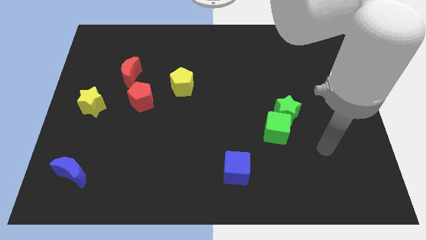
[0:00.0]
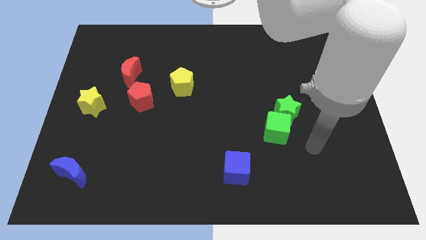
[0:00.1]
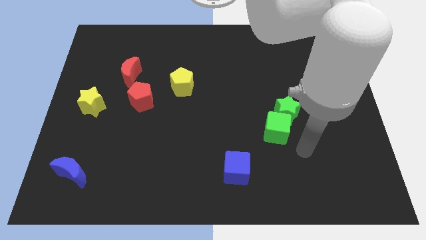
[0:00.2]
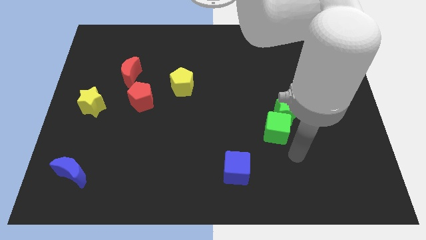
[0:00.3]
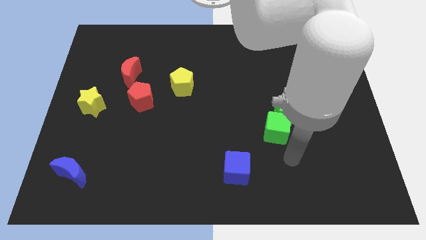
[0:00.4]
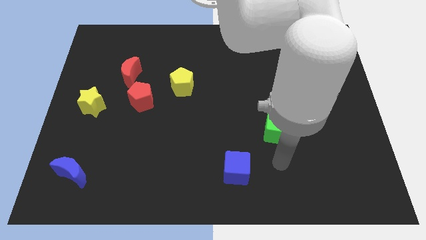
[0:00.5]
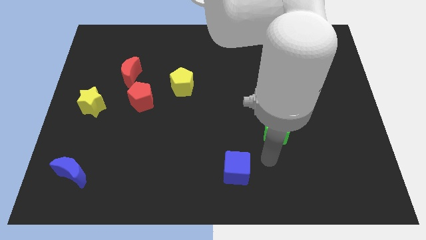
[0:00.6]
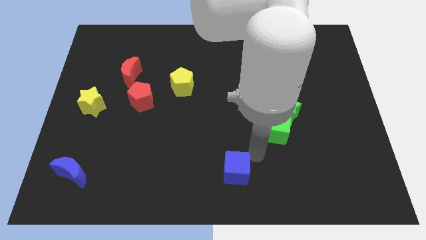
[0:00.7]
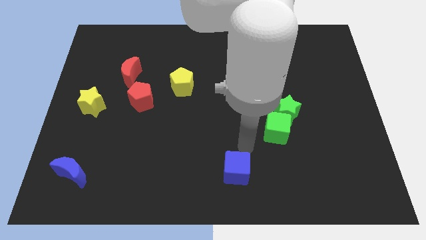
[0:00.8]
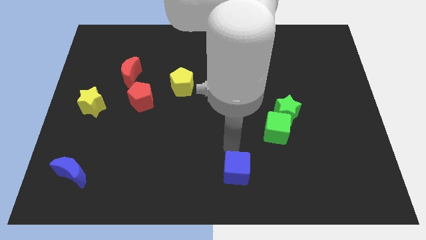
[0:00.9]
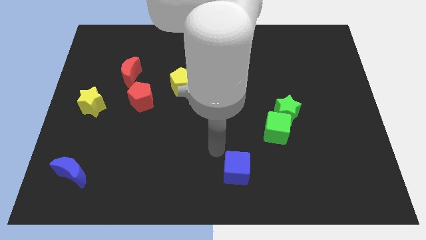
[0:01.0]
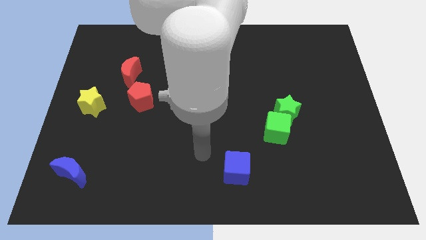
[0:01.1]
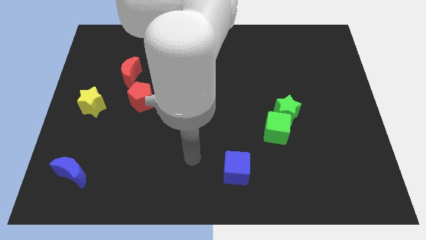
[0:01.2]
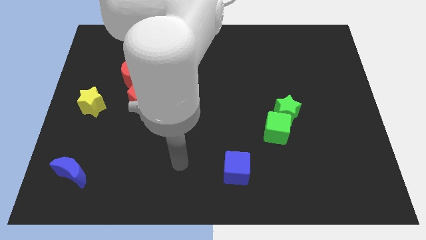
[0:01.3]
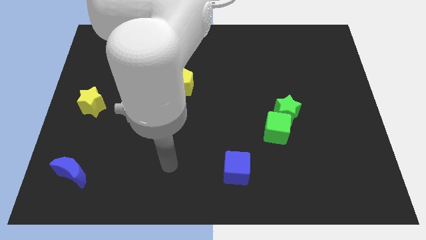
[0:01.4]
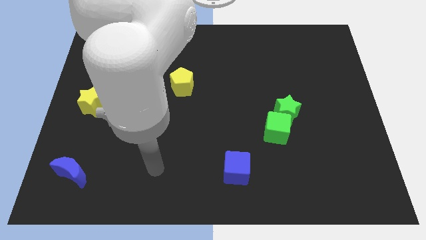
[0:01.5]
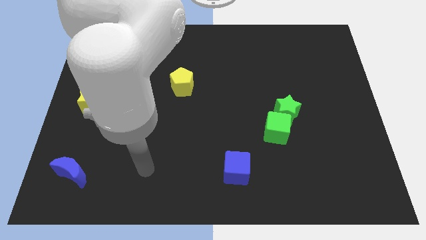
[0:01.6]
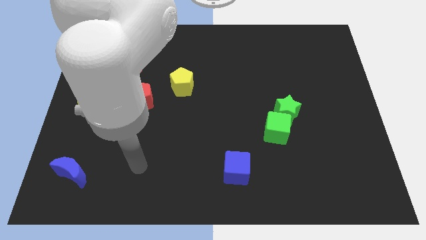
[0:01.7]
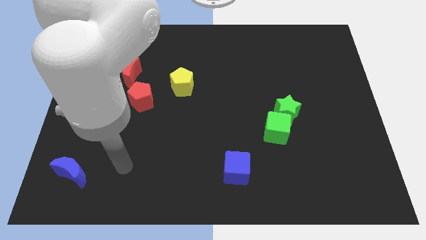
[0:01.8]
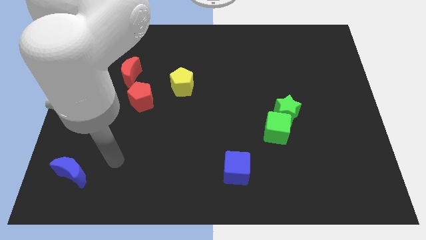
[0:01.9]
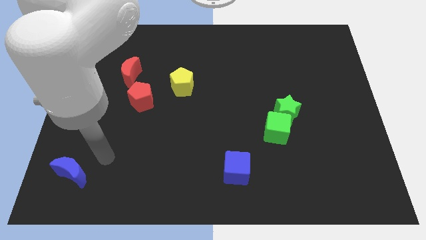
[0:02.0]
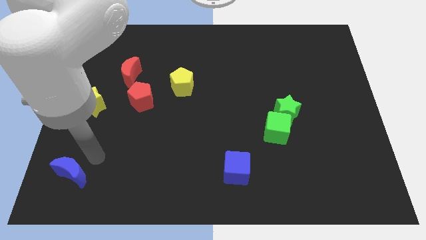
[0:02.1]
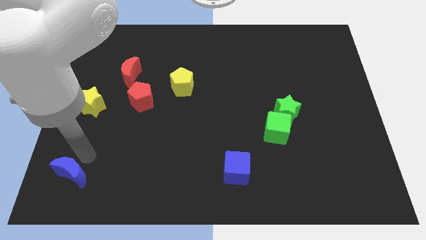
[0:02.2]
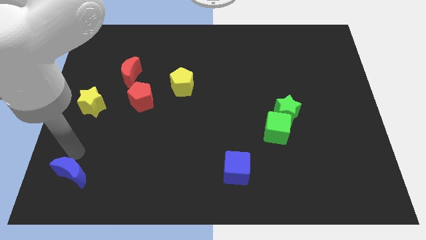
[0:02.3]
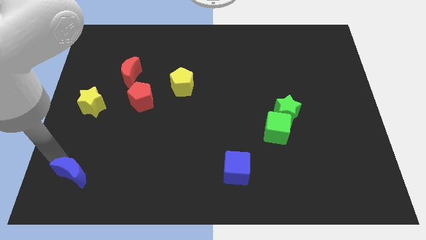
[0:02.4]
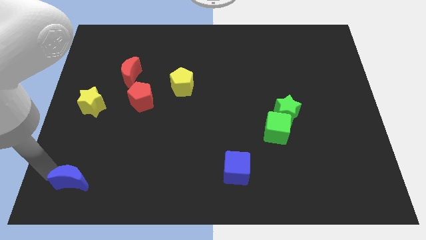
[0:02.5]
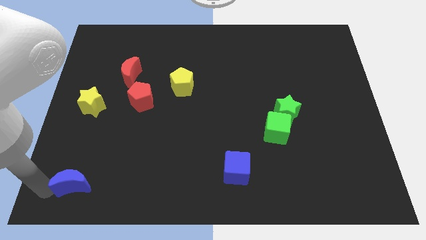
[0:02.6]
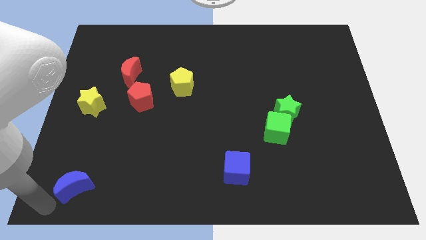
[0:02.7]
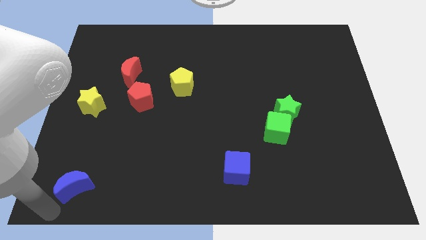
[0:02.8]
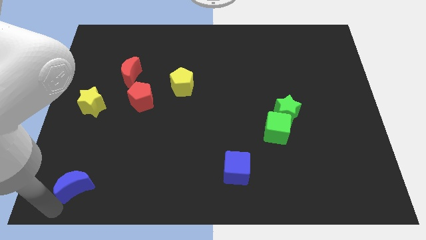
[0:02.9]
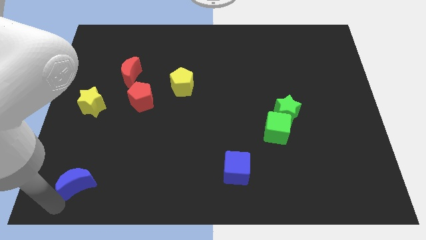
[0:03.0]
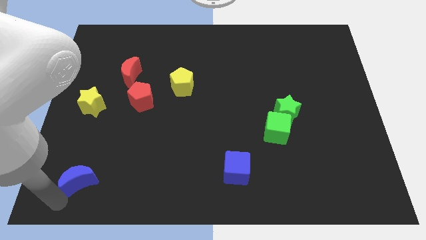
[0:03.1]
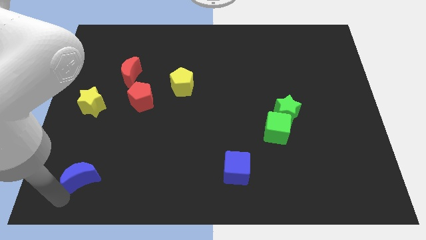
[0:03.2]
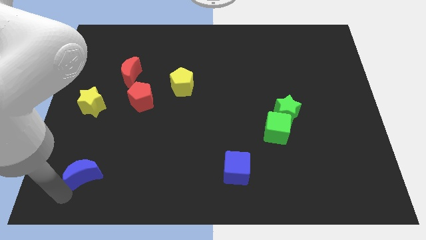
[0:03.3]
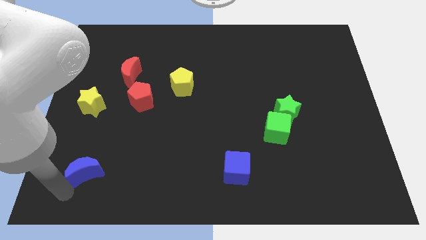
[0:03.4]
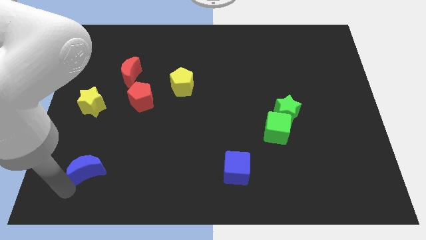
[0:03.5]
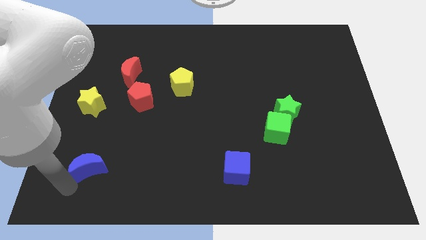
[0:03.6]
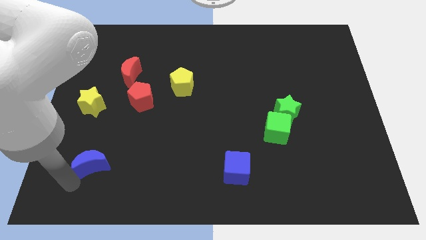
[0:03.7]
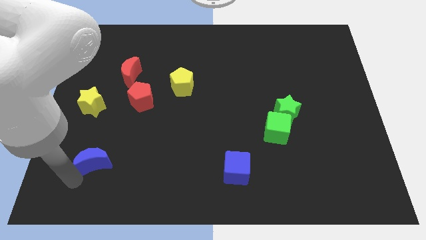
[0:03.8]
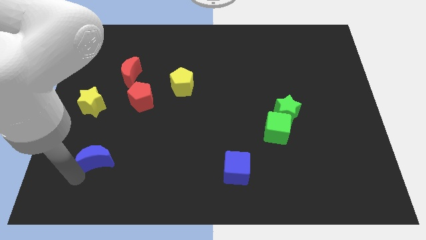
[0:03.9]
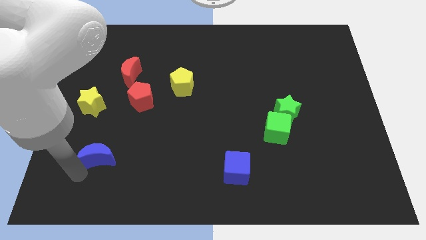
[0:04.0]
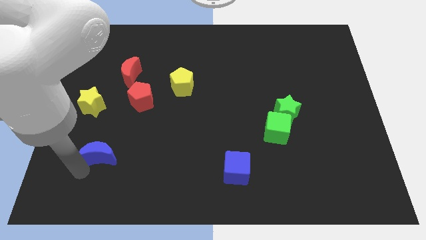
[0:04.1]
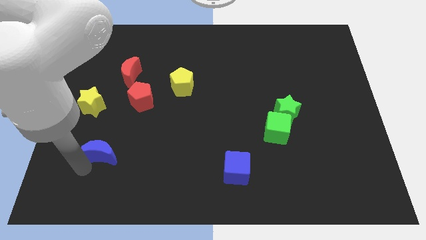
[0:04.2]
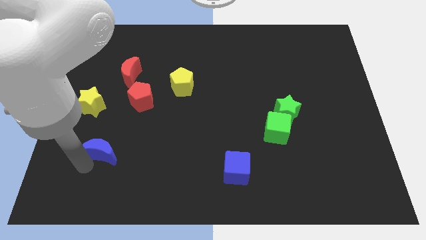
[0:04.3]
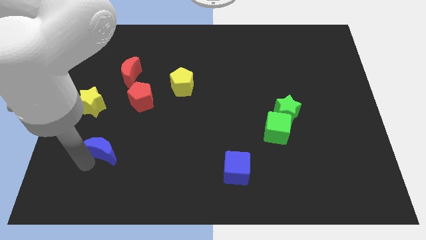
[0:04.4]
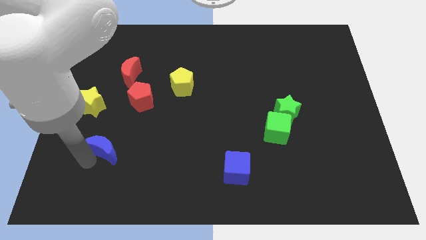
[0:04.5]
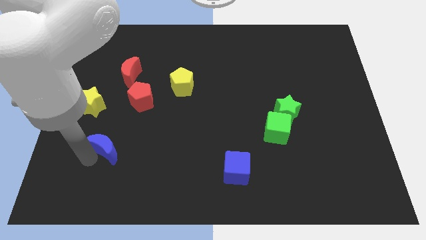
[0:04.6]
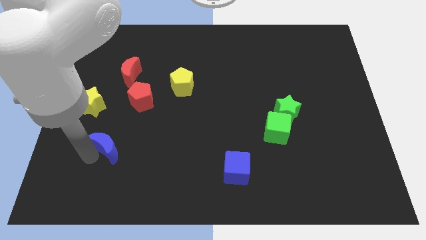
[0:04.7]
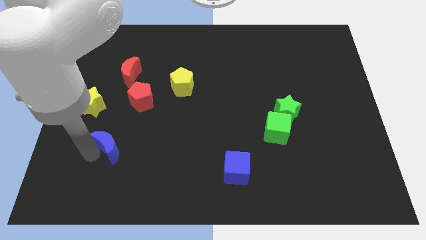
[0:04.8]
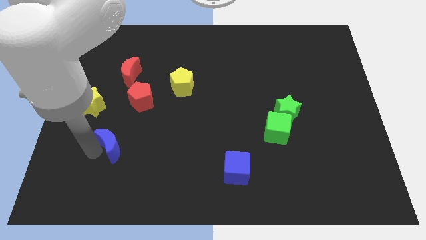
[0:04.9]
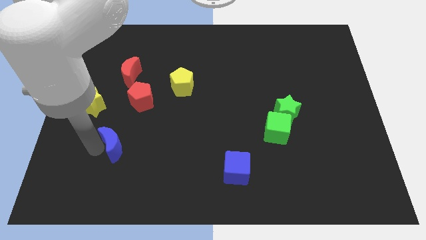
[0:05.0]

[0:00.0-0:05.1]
move the blue moon below the red pentagon

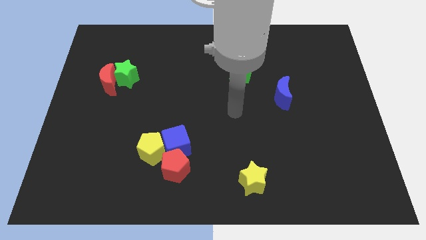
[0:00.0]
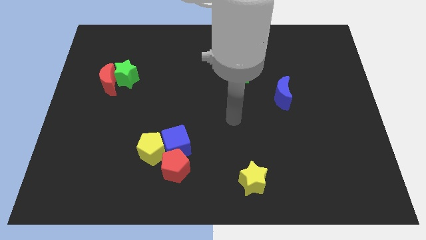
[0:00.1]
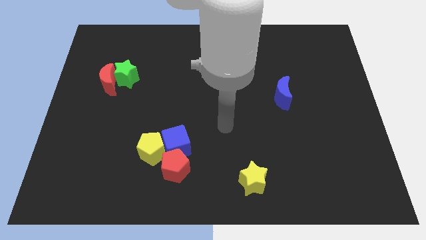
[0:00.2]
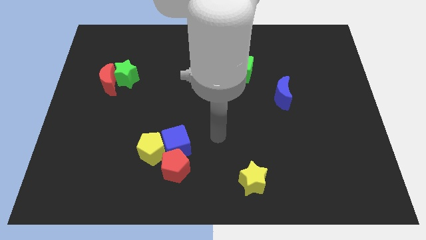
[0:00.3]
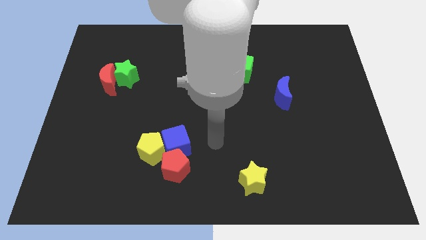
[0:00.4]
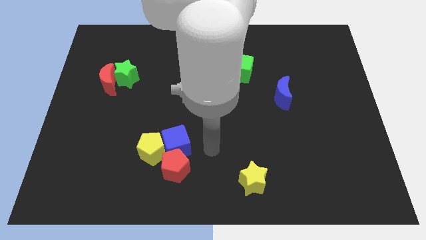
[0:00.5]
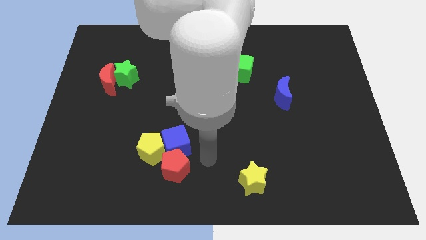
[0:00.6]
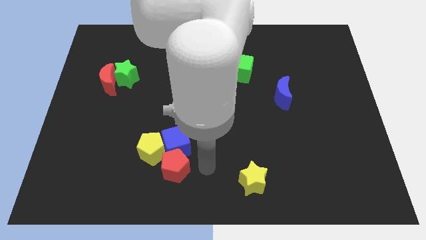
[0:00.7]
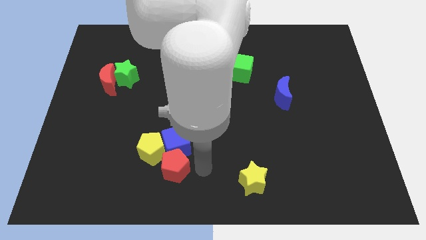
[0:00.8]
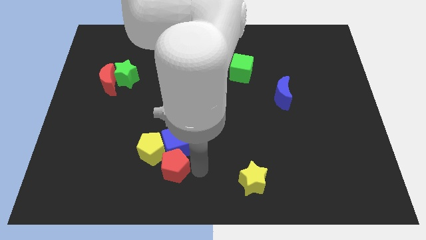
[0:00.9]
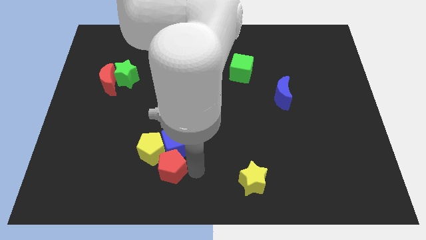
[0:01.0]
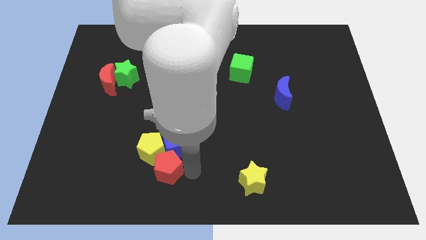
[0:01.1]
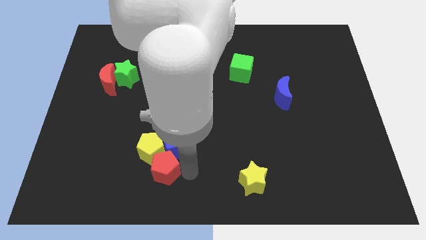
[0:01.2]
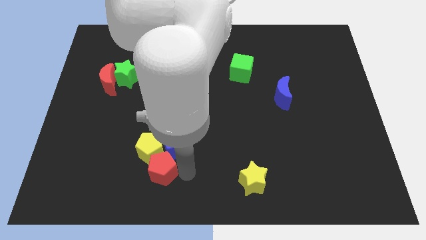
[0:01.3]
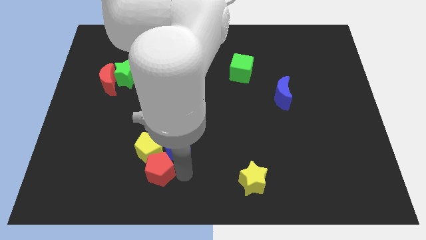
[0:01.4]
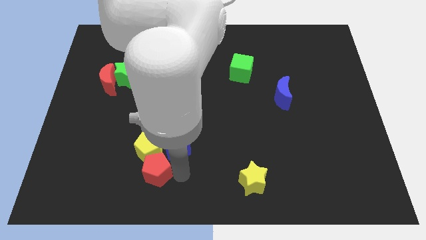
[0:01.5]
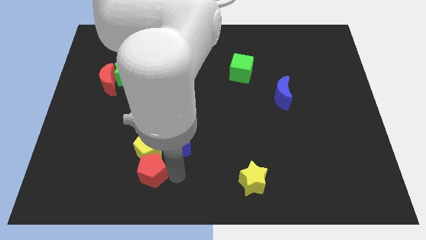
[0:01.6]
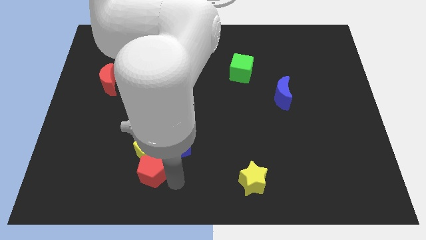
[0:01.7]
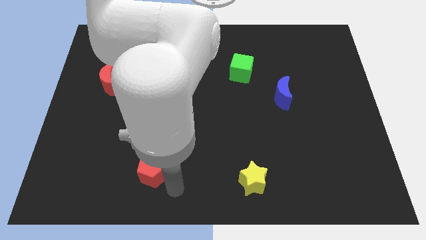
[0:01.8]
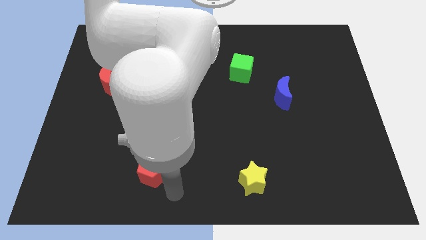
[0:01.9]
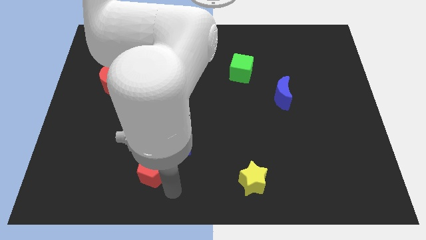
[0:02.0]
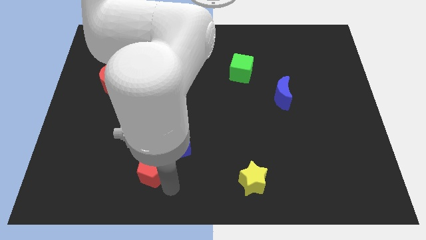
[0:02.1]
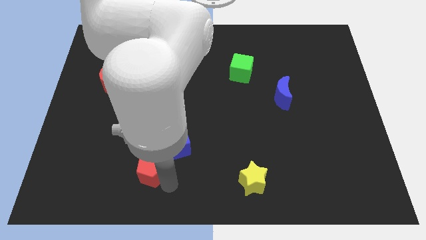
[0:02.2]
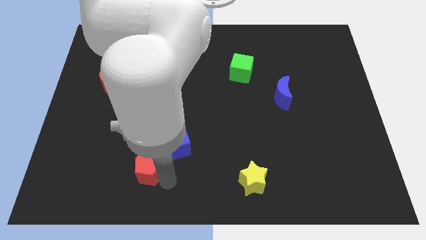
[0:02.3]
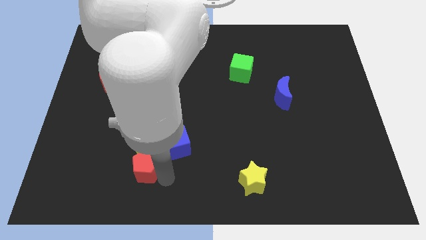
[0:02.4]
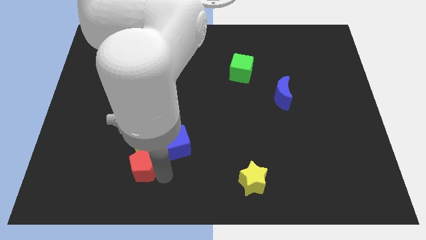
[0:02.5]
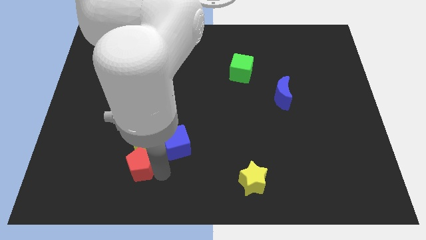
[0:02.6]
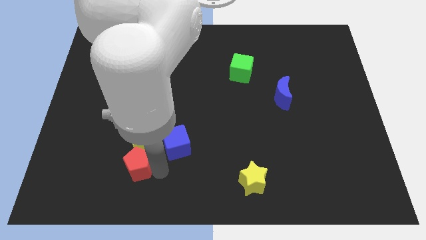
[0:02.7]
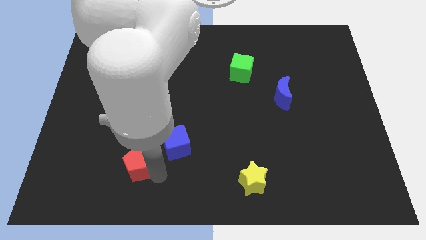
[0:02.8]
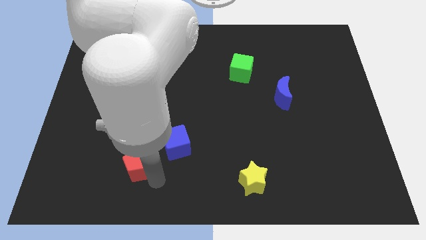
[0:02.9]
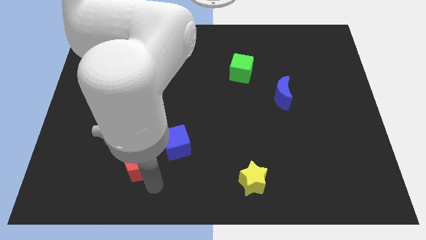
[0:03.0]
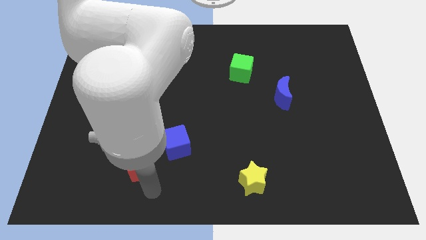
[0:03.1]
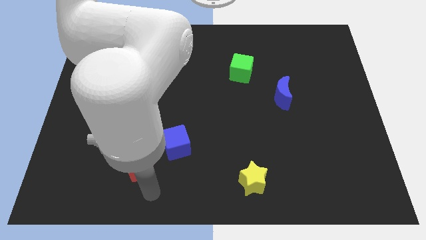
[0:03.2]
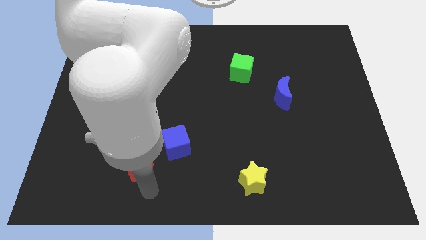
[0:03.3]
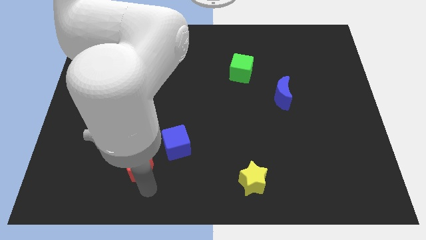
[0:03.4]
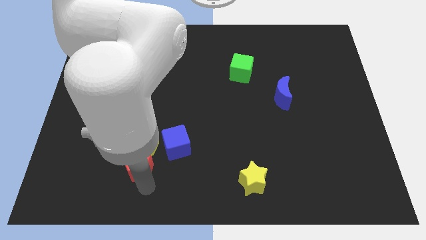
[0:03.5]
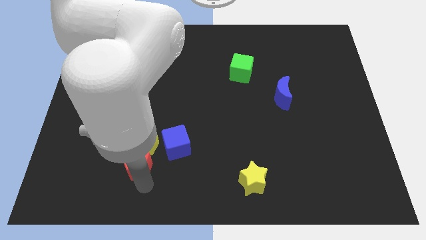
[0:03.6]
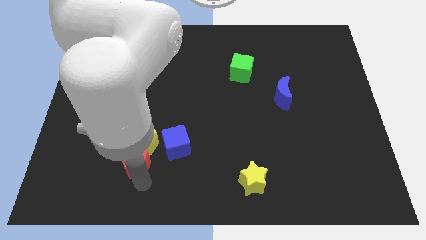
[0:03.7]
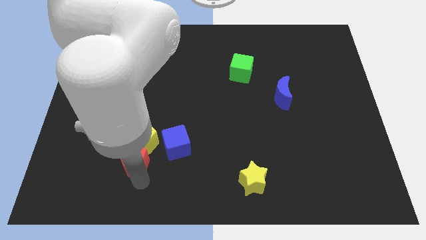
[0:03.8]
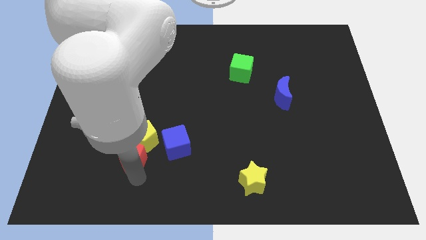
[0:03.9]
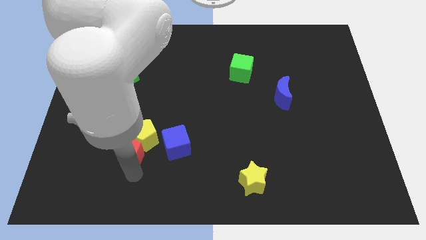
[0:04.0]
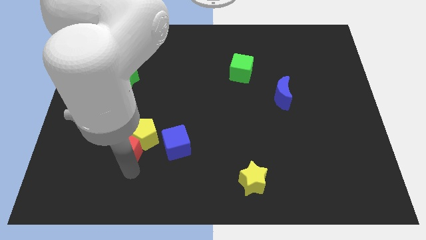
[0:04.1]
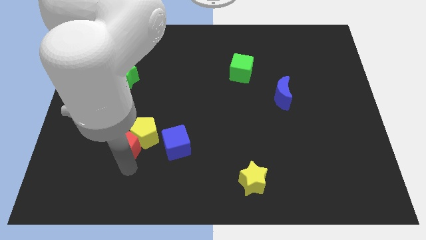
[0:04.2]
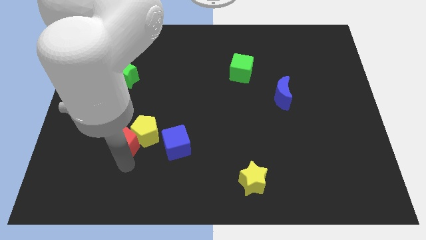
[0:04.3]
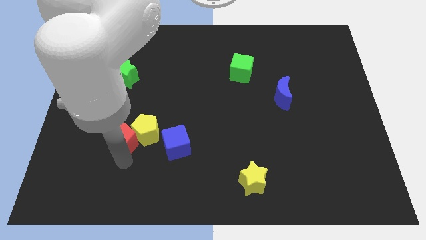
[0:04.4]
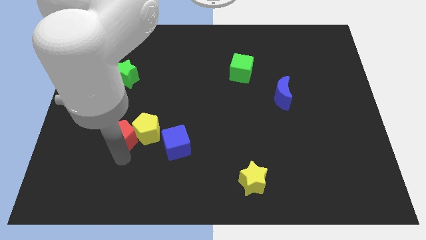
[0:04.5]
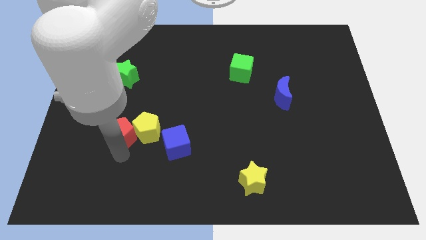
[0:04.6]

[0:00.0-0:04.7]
slide the red pentagon to the top left of the yellow pentagon
